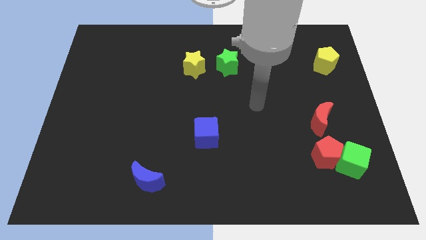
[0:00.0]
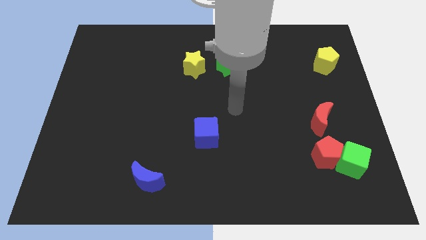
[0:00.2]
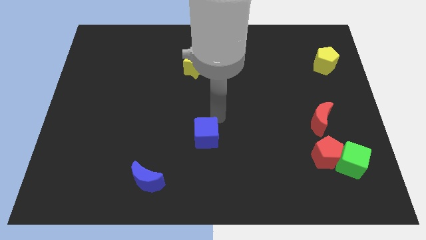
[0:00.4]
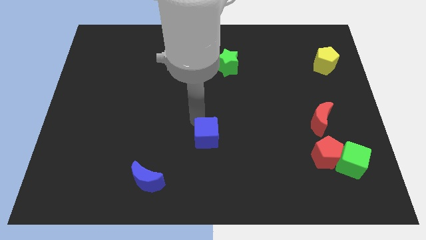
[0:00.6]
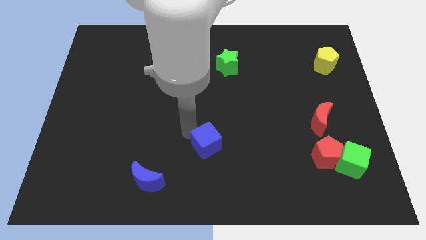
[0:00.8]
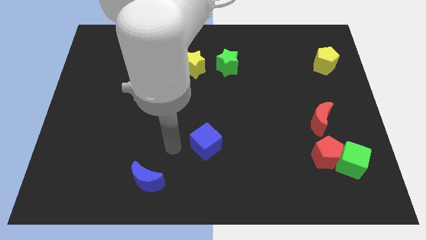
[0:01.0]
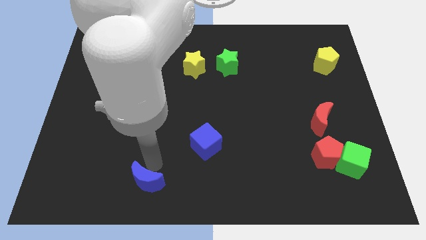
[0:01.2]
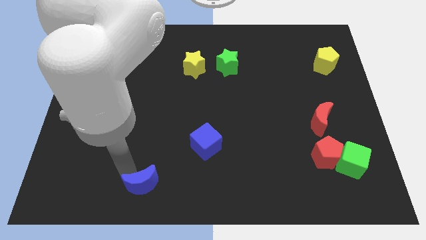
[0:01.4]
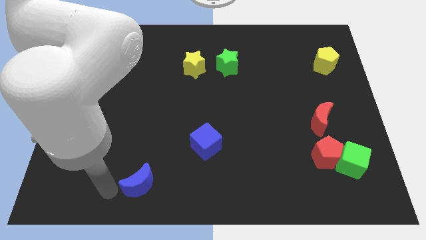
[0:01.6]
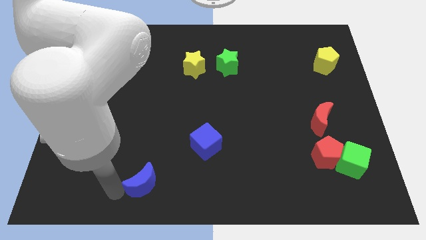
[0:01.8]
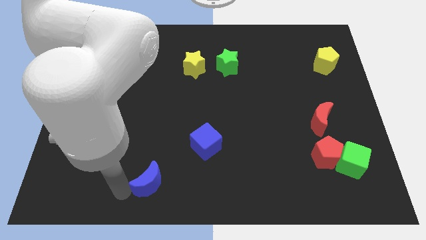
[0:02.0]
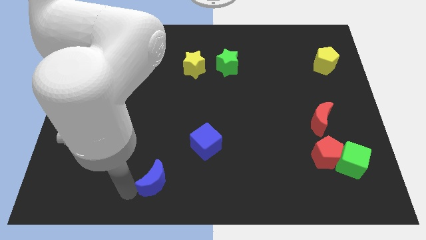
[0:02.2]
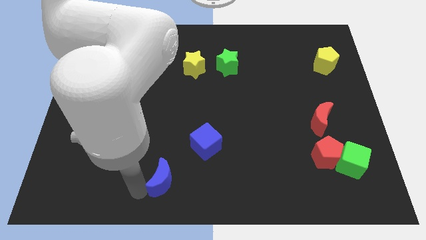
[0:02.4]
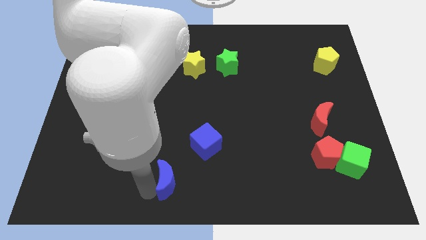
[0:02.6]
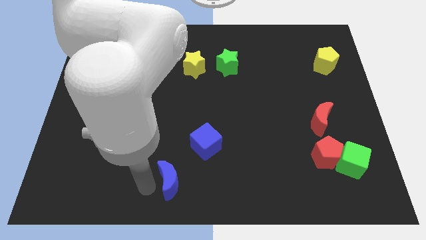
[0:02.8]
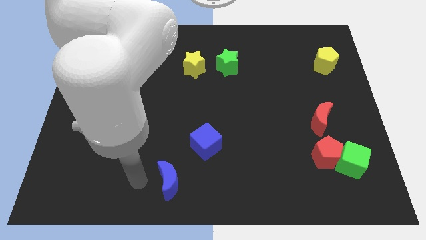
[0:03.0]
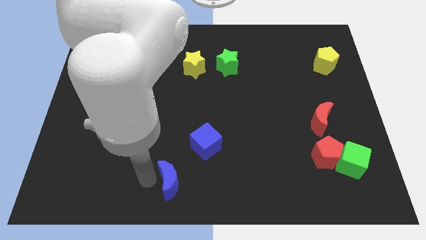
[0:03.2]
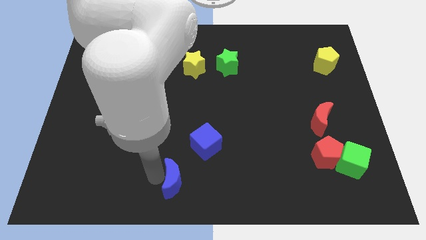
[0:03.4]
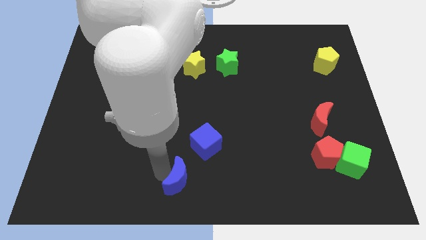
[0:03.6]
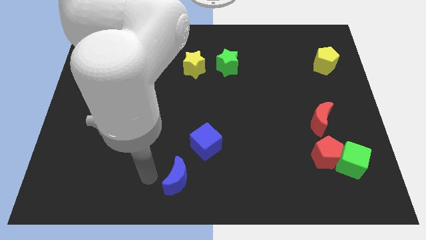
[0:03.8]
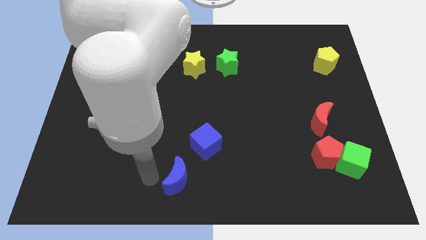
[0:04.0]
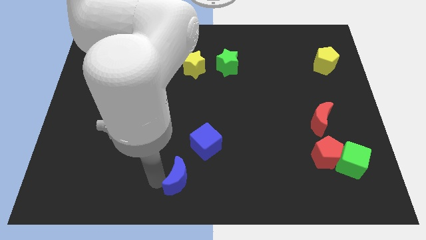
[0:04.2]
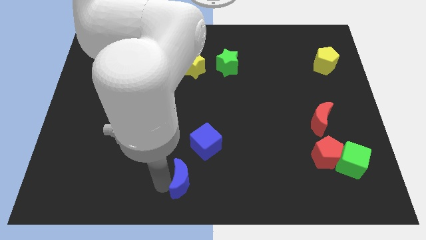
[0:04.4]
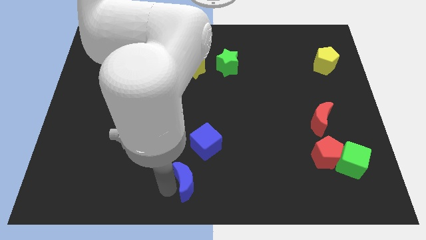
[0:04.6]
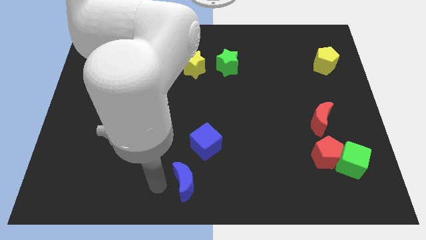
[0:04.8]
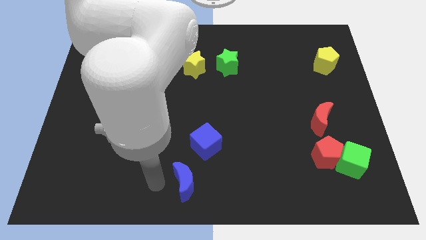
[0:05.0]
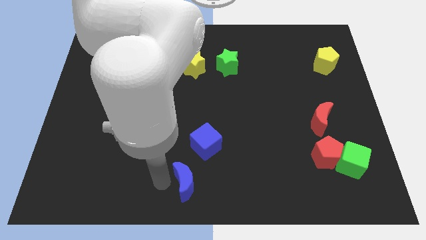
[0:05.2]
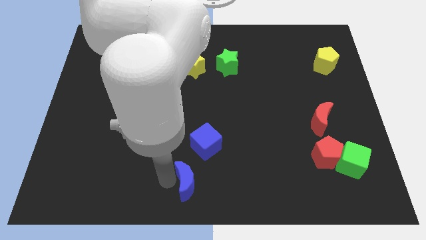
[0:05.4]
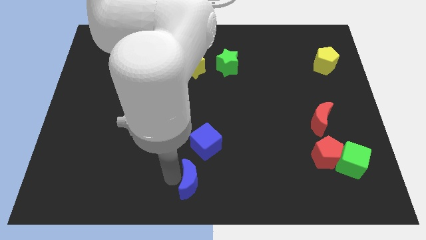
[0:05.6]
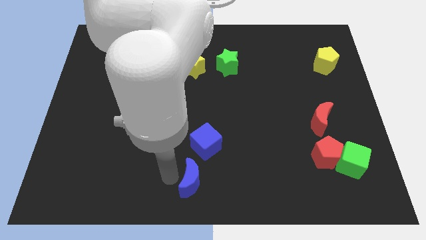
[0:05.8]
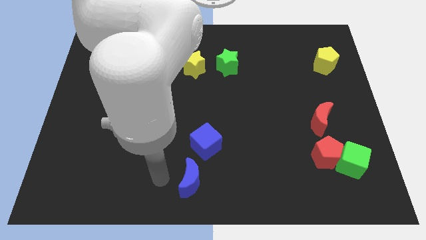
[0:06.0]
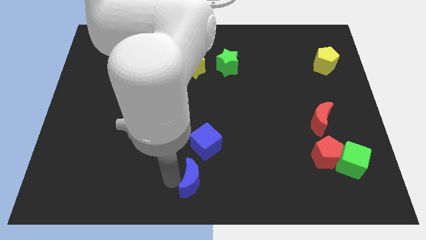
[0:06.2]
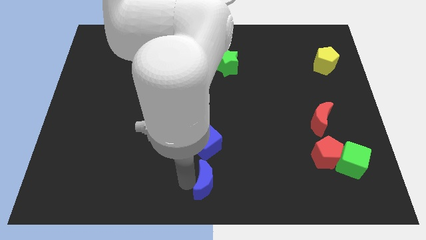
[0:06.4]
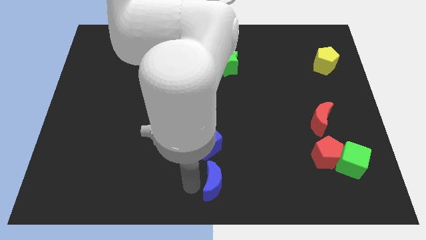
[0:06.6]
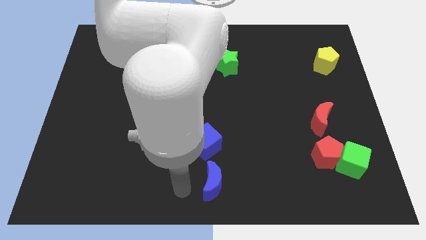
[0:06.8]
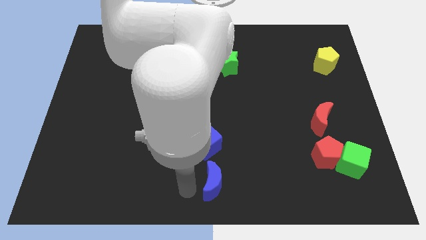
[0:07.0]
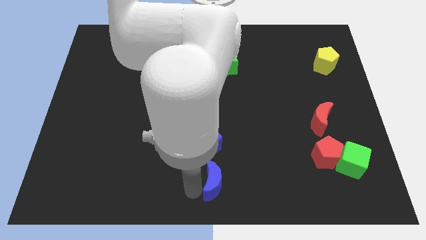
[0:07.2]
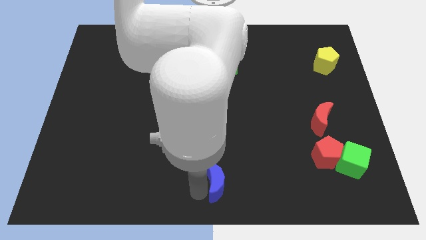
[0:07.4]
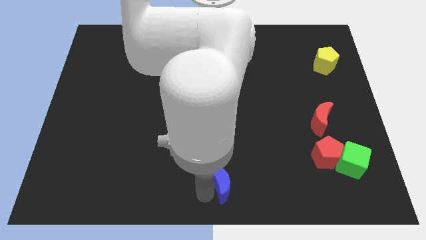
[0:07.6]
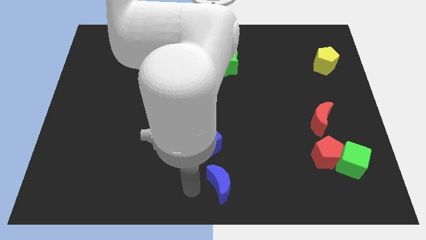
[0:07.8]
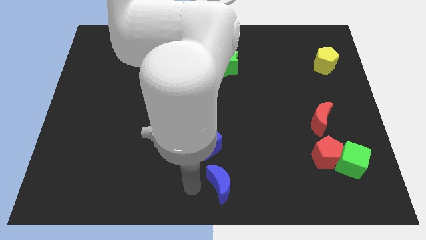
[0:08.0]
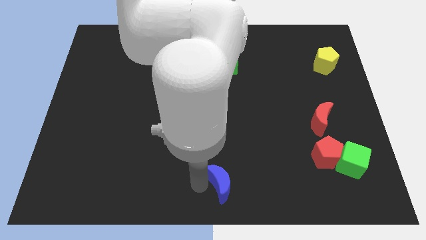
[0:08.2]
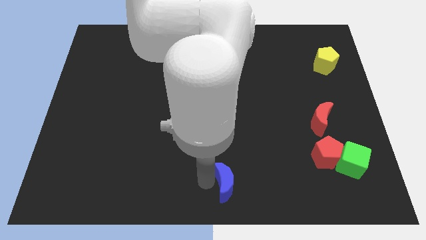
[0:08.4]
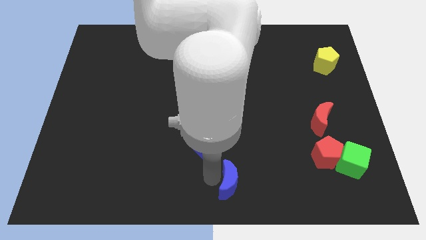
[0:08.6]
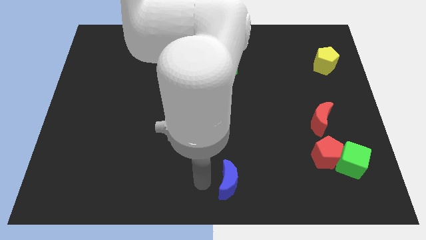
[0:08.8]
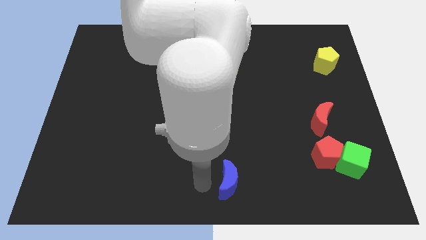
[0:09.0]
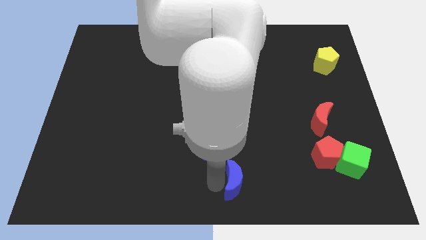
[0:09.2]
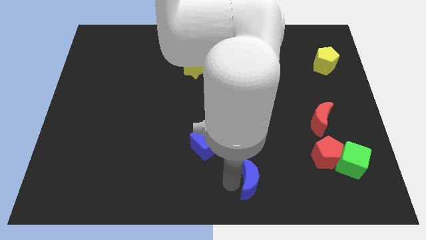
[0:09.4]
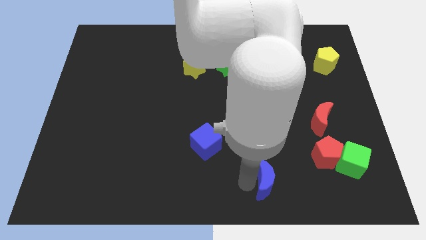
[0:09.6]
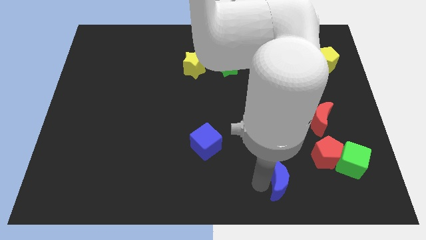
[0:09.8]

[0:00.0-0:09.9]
move the blue moon diagonally down and to the left of the red pentagon

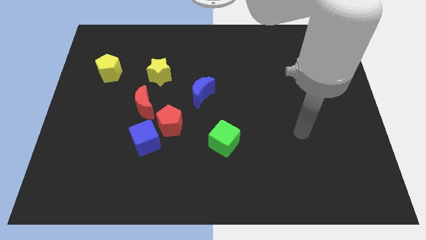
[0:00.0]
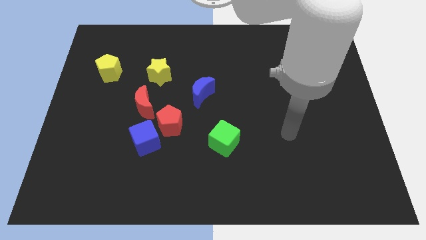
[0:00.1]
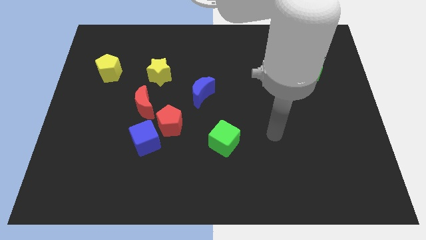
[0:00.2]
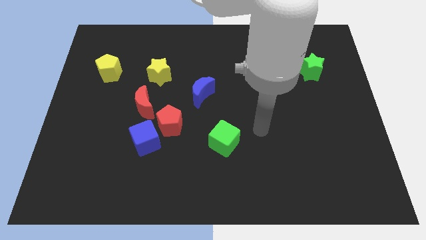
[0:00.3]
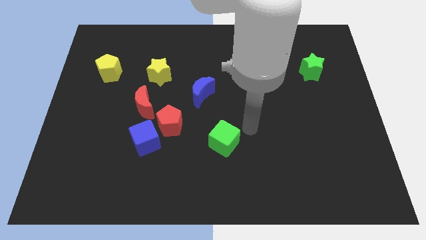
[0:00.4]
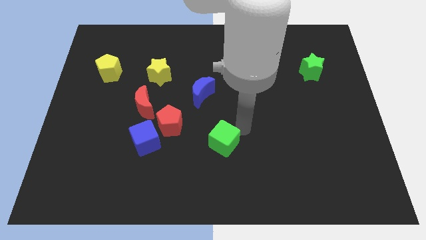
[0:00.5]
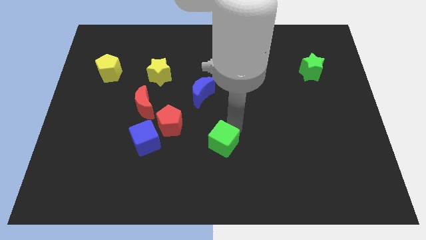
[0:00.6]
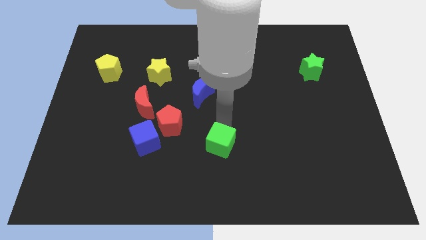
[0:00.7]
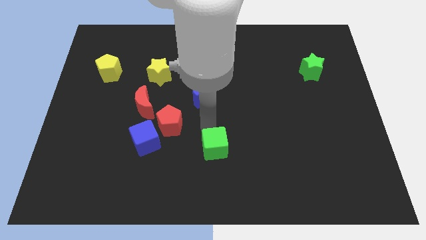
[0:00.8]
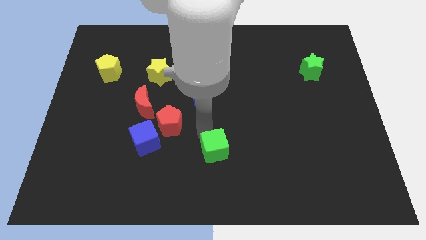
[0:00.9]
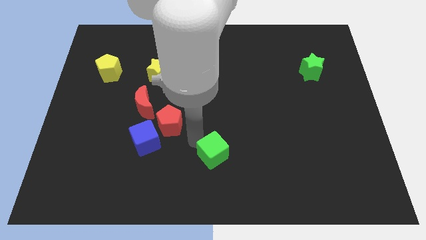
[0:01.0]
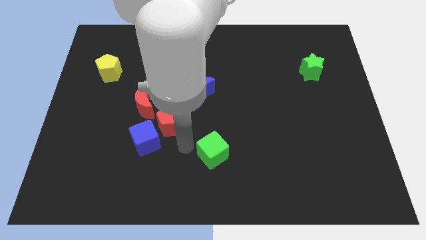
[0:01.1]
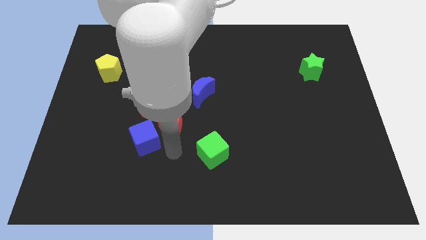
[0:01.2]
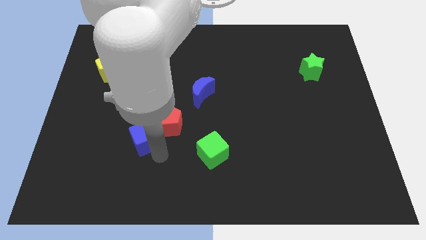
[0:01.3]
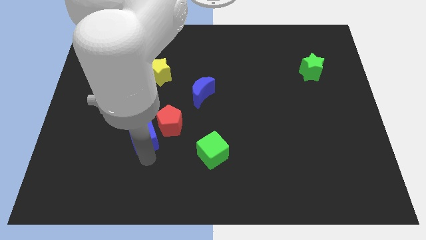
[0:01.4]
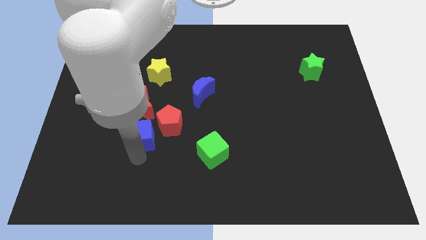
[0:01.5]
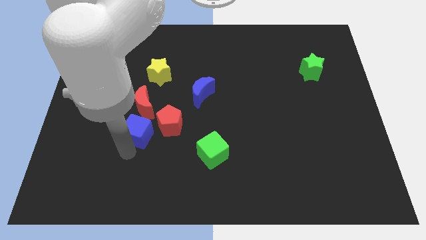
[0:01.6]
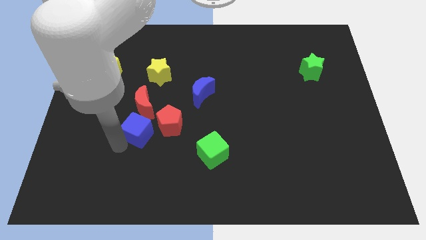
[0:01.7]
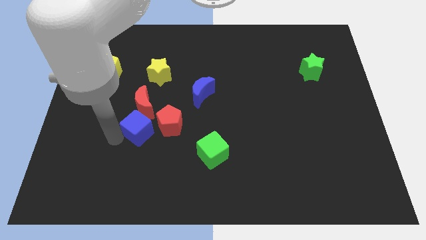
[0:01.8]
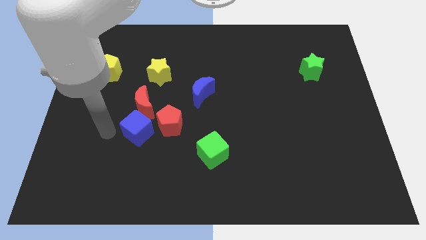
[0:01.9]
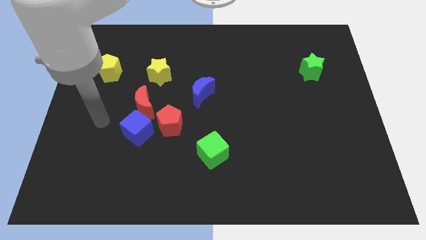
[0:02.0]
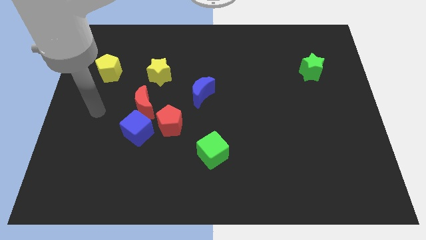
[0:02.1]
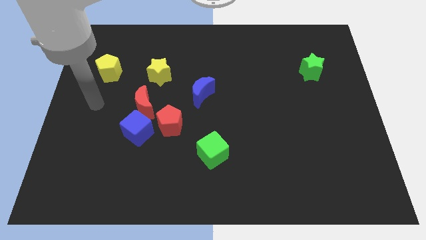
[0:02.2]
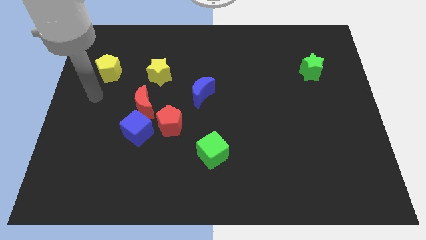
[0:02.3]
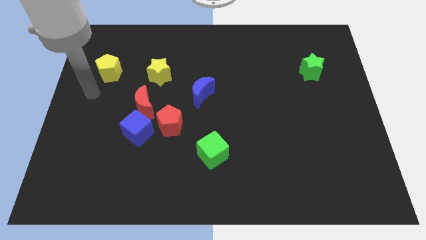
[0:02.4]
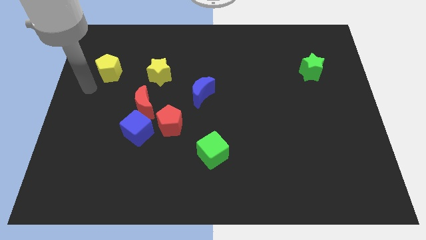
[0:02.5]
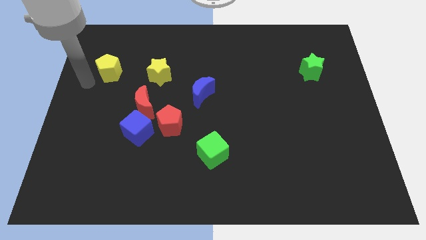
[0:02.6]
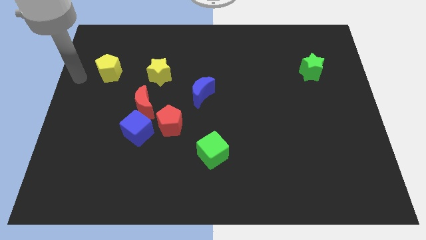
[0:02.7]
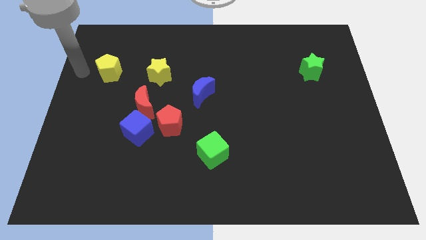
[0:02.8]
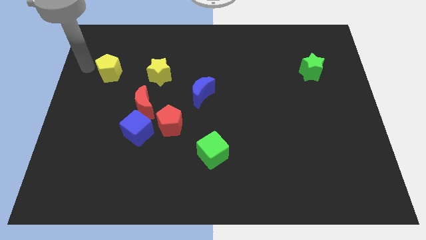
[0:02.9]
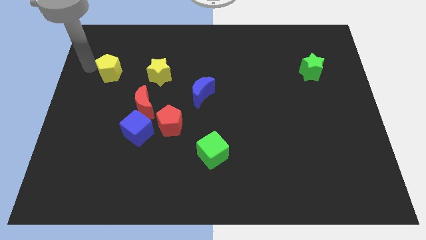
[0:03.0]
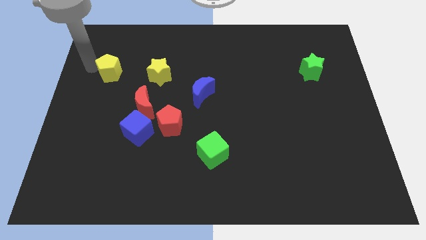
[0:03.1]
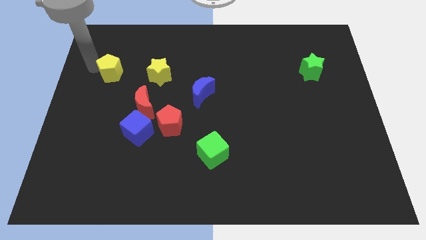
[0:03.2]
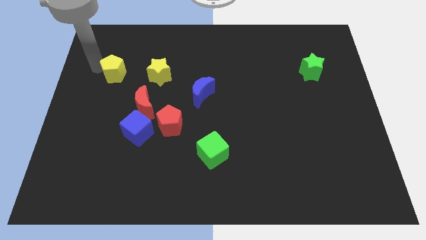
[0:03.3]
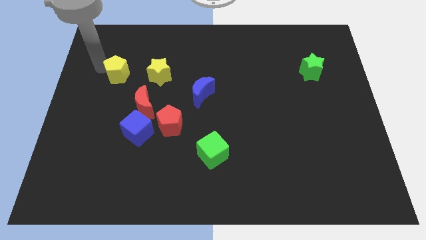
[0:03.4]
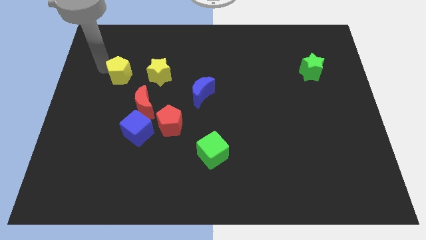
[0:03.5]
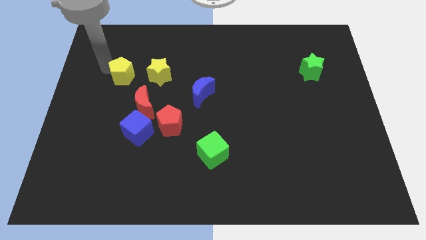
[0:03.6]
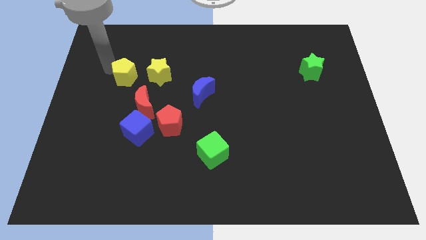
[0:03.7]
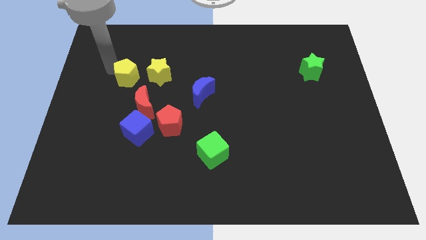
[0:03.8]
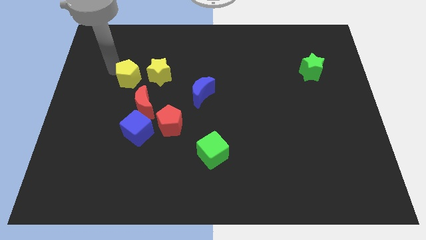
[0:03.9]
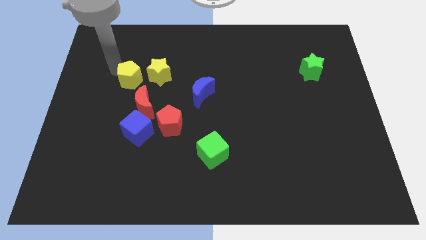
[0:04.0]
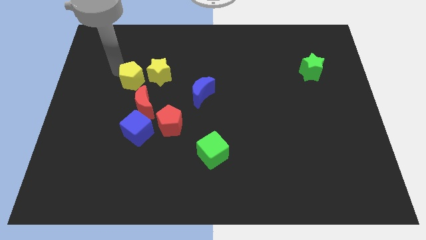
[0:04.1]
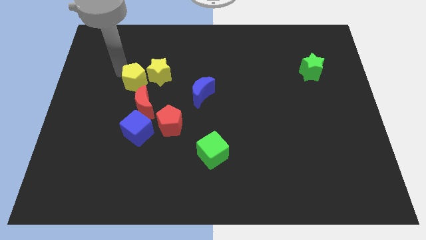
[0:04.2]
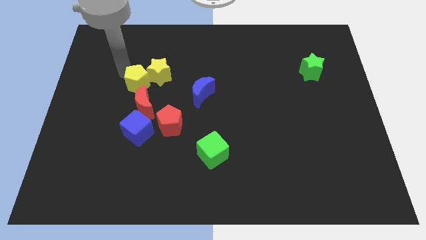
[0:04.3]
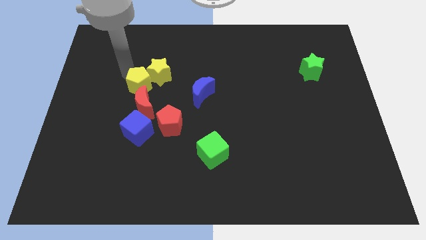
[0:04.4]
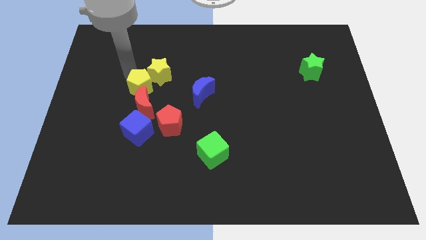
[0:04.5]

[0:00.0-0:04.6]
move the yellow pentagon below the yellow star
